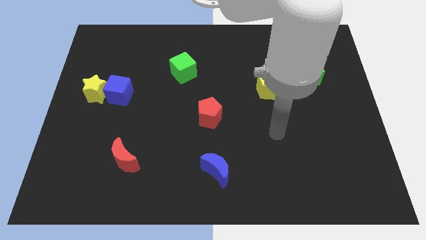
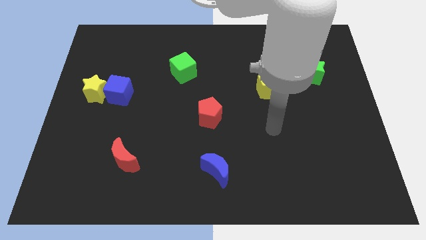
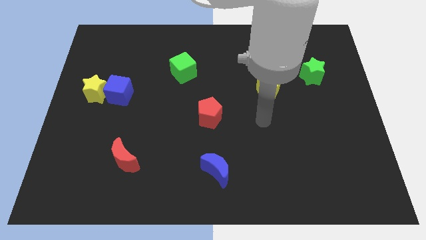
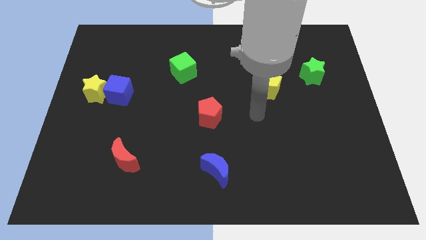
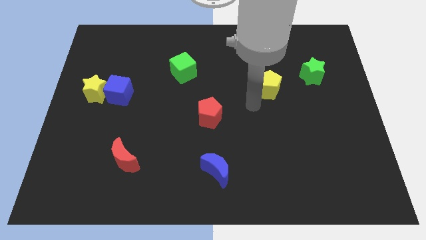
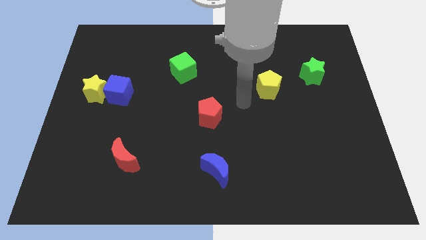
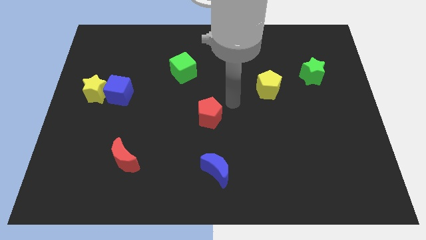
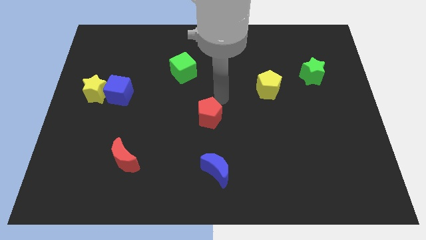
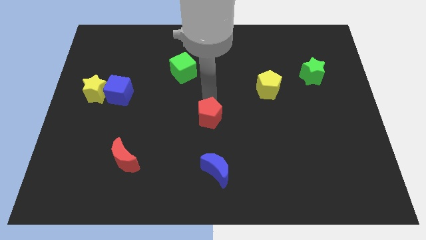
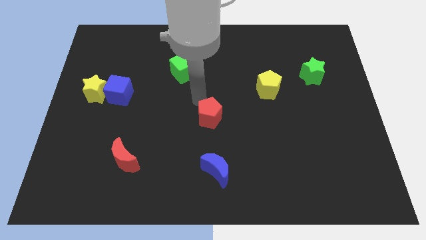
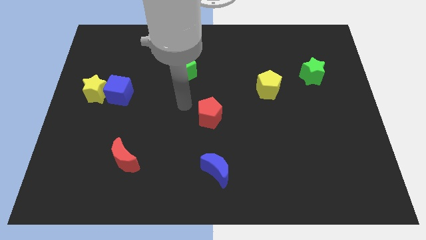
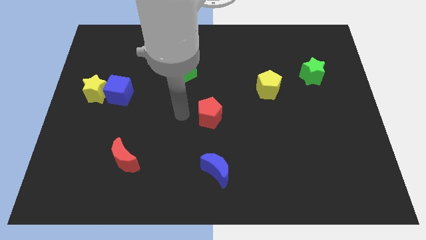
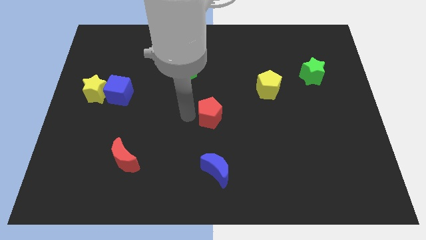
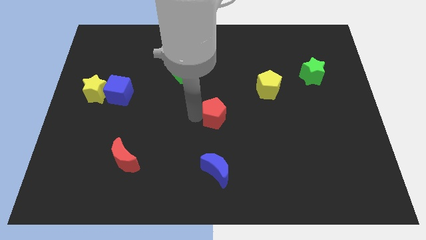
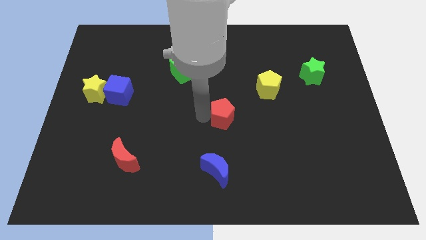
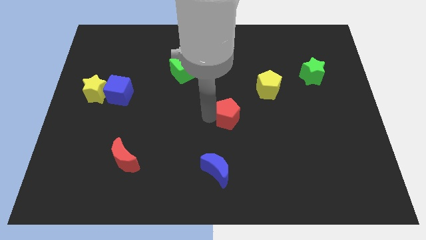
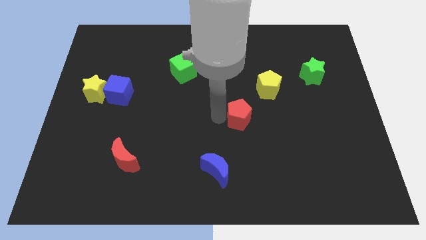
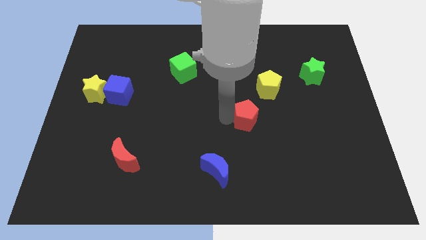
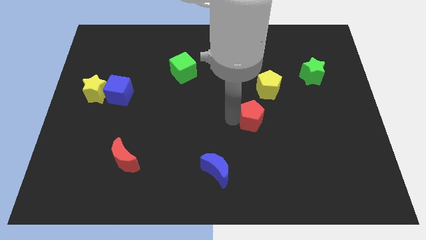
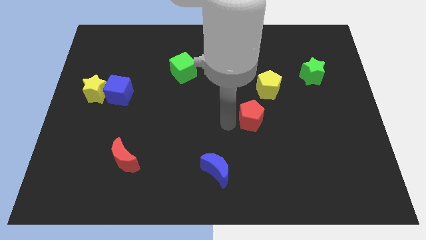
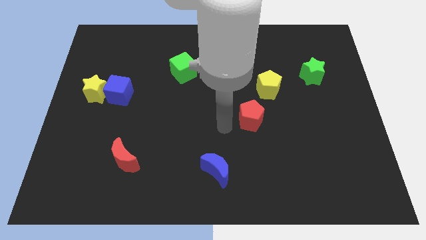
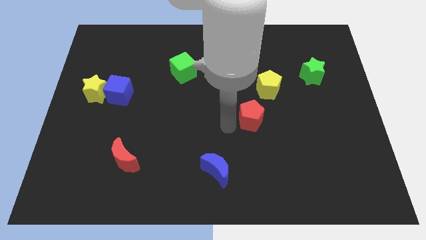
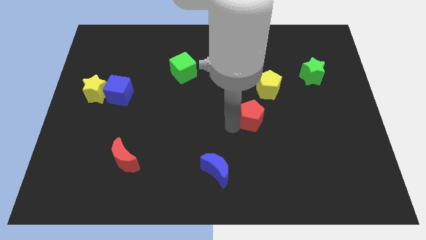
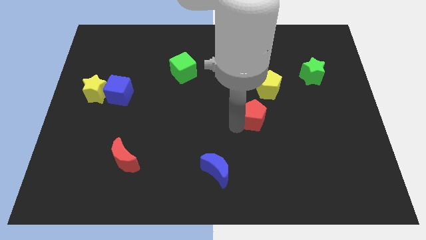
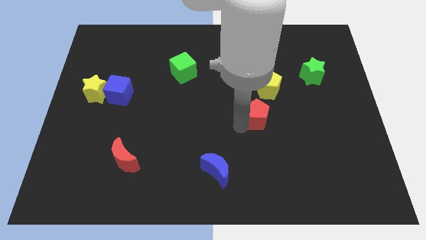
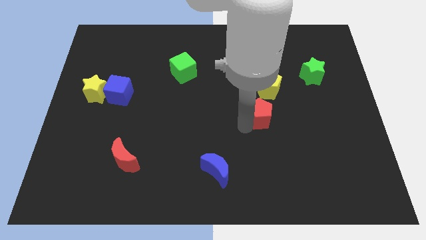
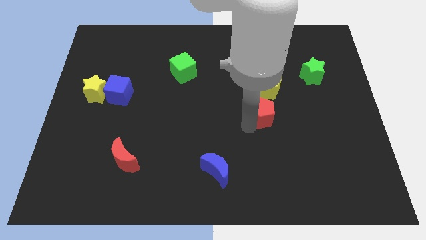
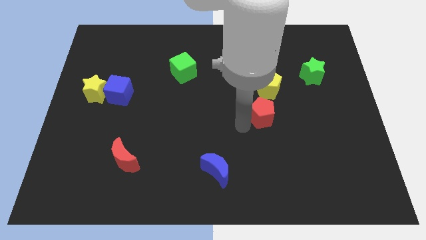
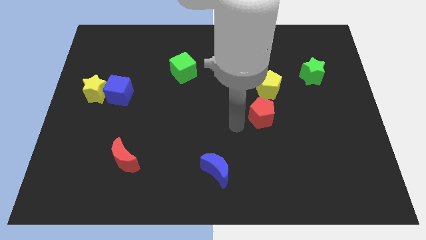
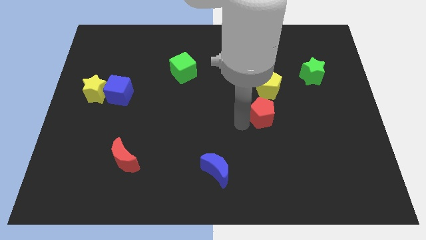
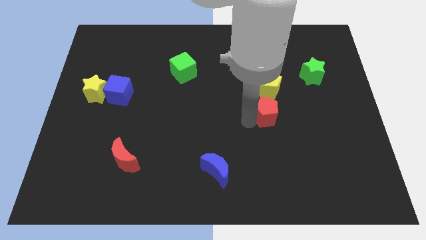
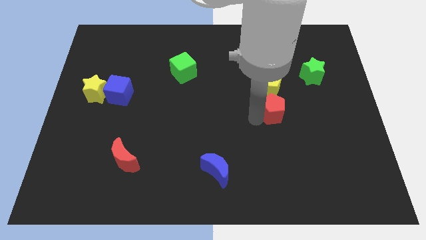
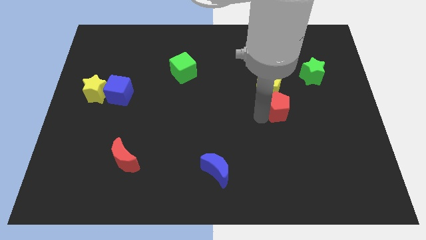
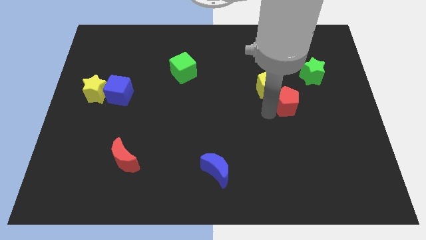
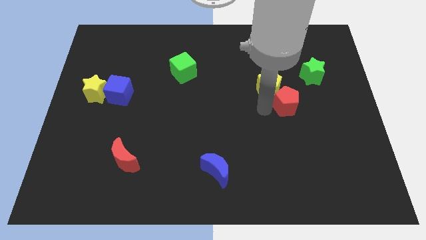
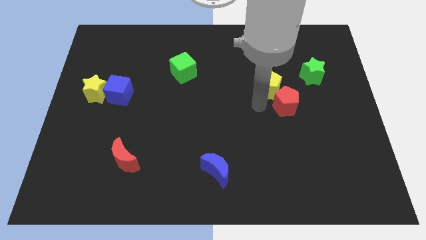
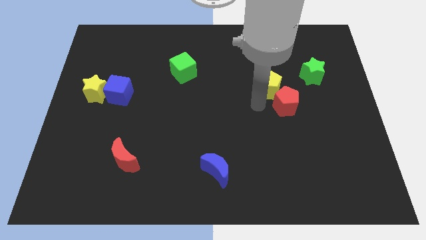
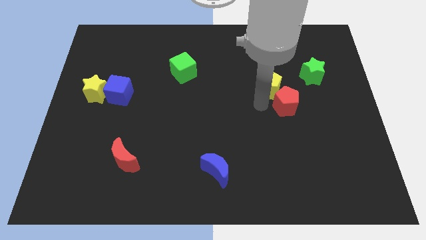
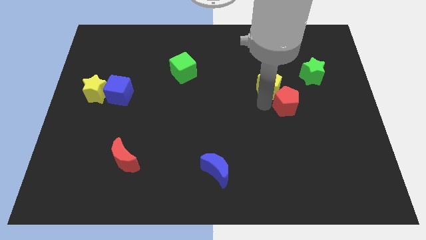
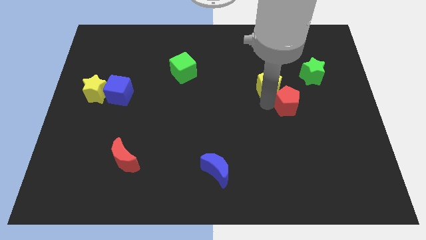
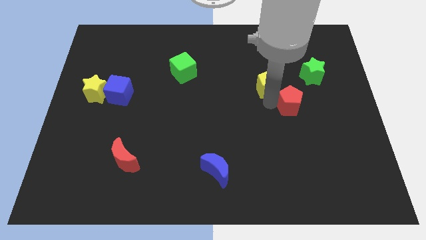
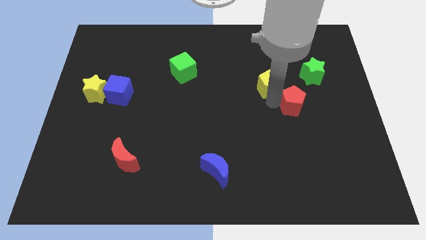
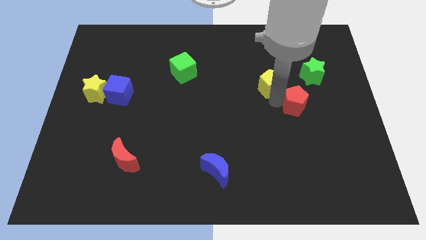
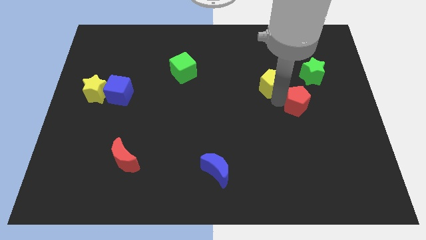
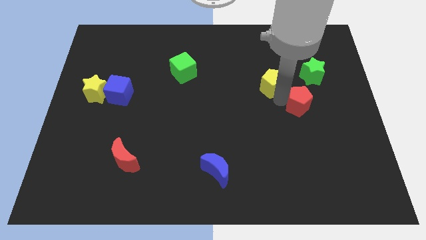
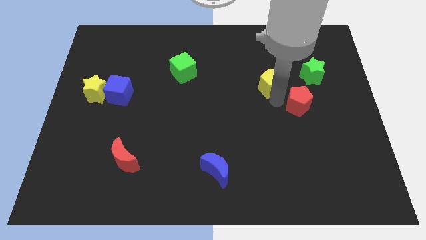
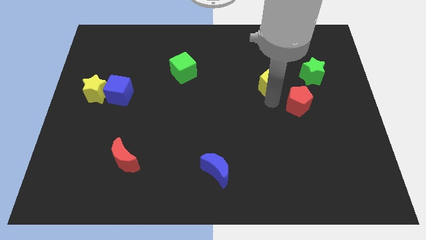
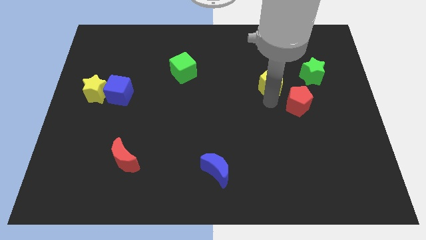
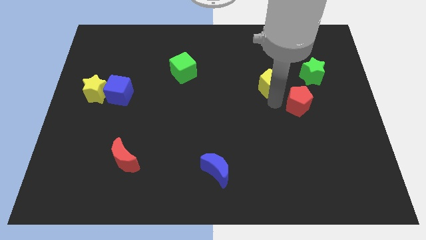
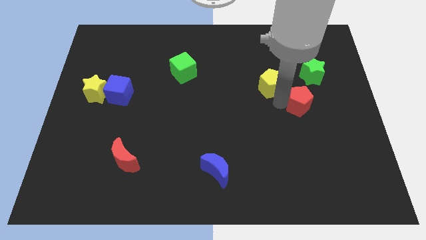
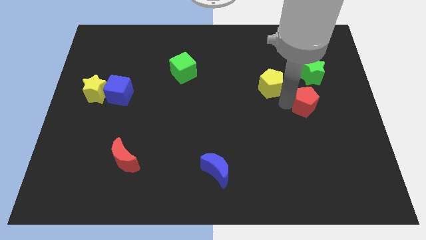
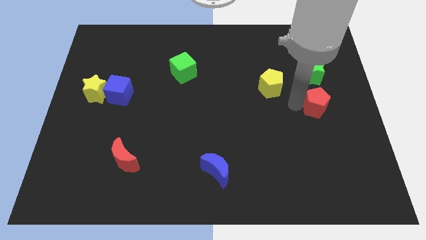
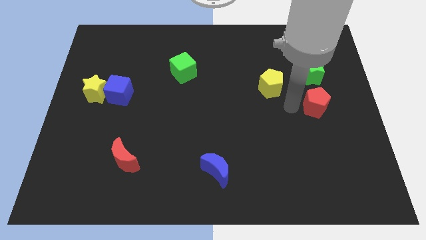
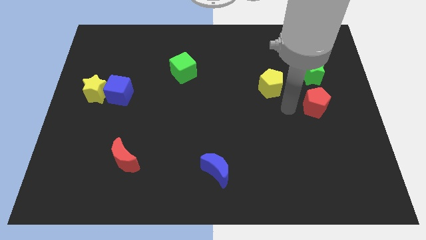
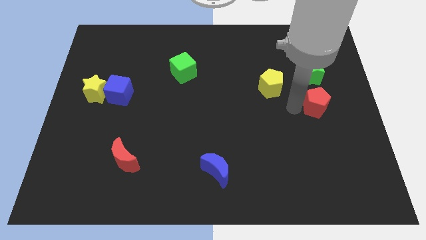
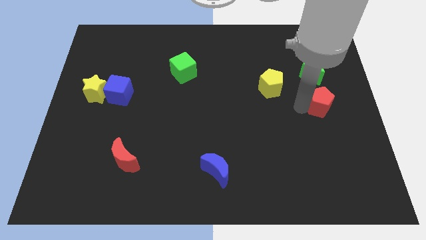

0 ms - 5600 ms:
push the red pentagon to the right side of the board
